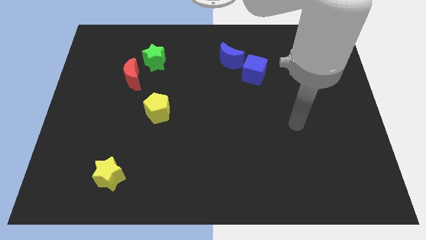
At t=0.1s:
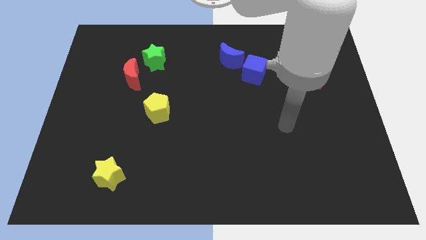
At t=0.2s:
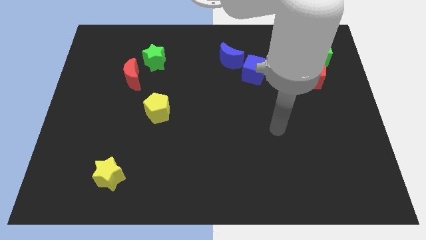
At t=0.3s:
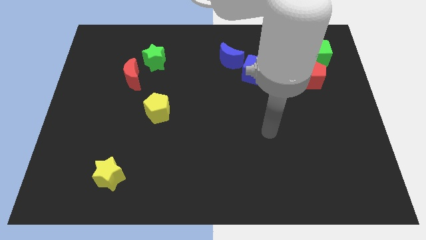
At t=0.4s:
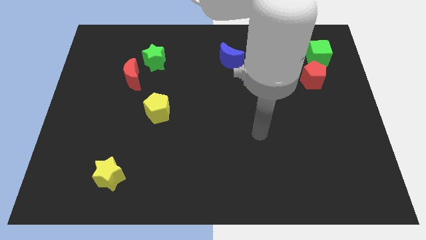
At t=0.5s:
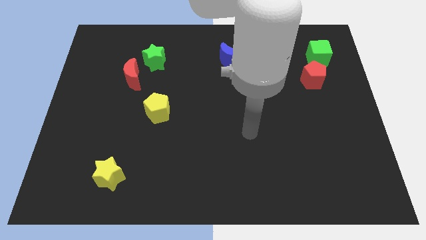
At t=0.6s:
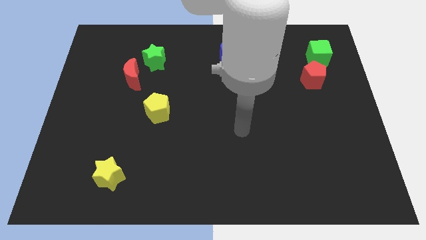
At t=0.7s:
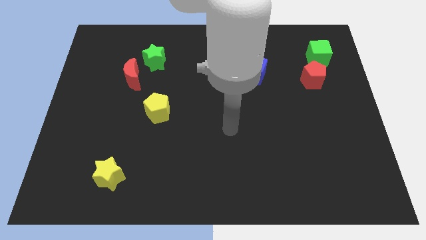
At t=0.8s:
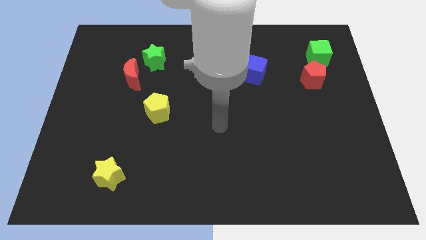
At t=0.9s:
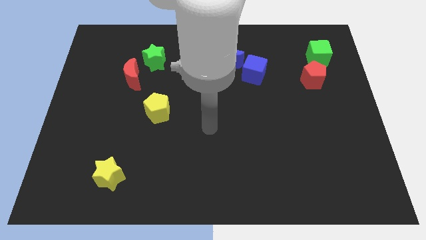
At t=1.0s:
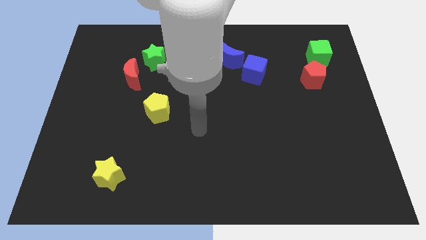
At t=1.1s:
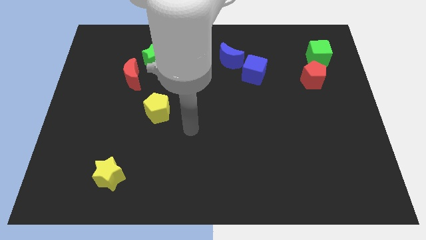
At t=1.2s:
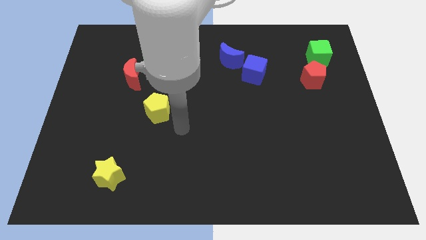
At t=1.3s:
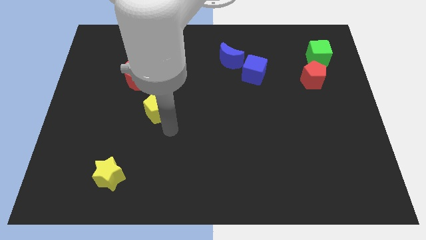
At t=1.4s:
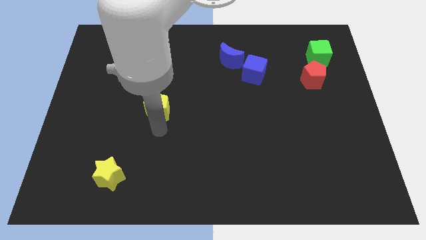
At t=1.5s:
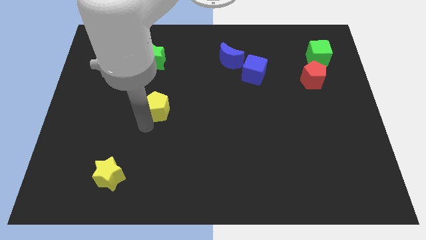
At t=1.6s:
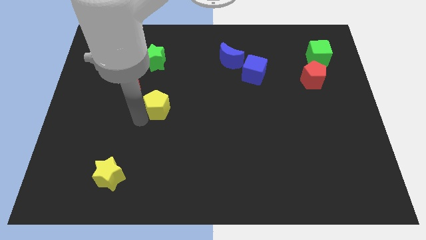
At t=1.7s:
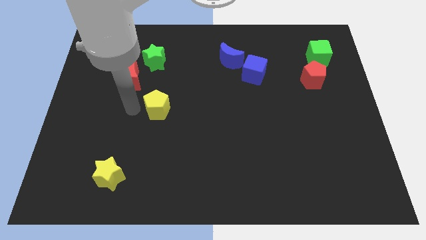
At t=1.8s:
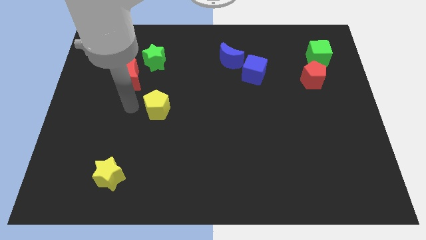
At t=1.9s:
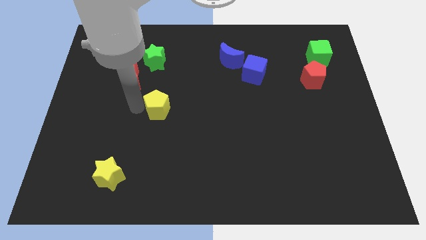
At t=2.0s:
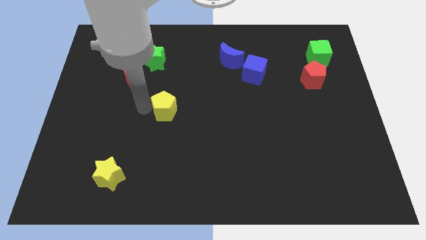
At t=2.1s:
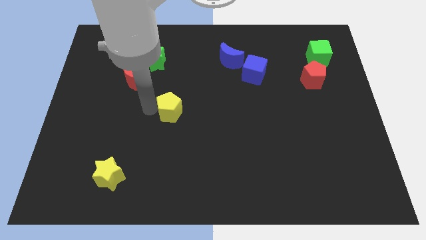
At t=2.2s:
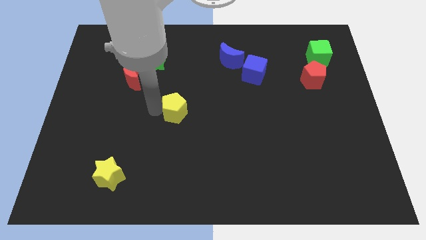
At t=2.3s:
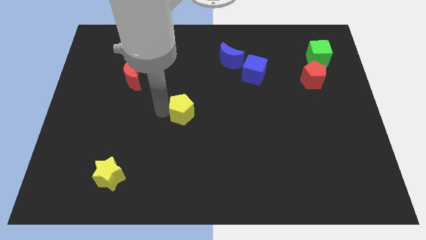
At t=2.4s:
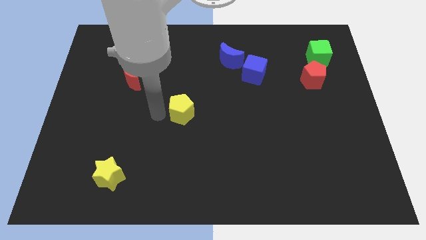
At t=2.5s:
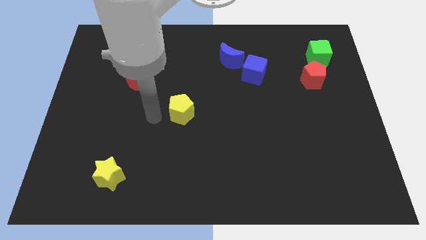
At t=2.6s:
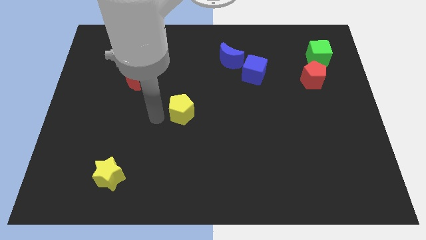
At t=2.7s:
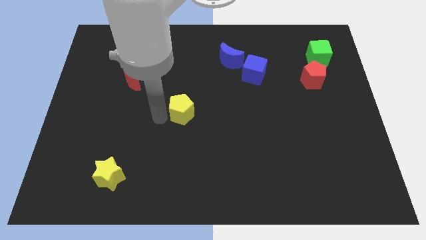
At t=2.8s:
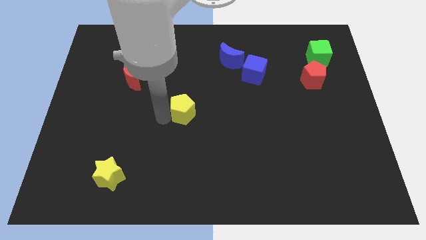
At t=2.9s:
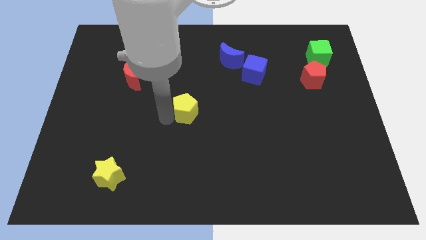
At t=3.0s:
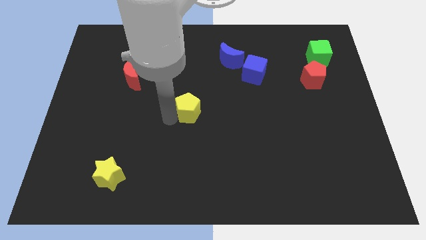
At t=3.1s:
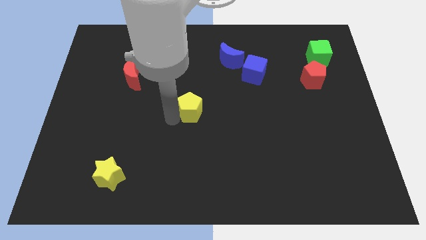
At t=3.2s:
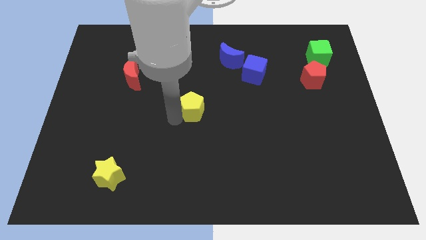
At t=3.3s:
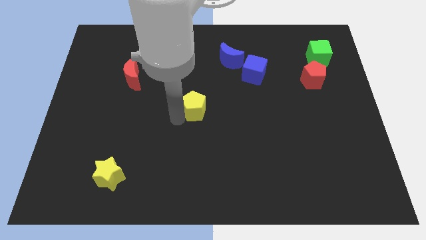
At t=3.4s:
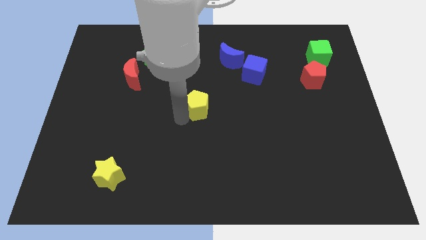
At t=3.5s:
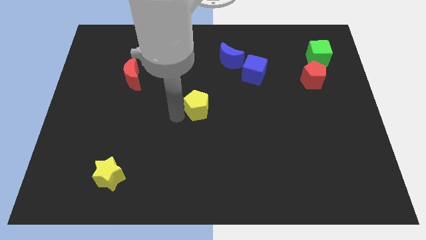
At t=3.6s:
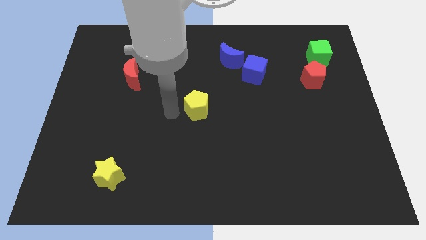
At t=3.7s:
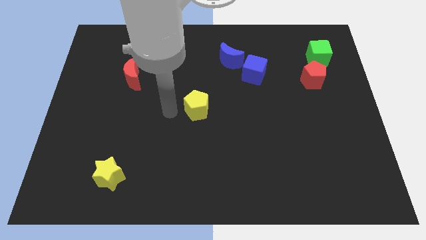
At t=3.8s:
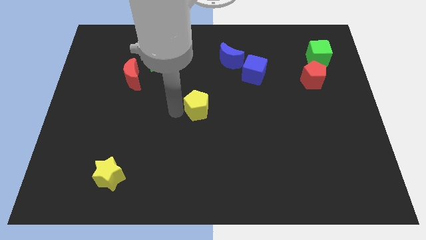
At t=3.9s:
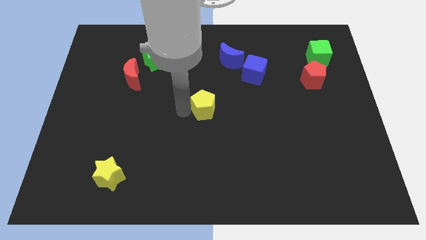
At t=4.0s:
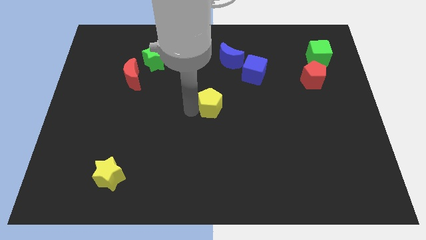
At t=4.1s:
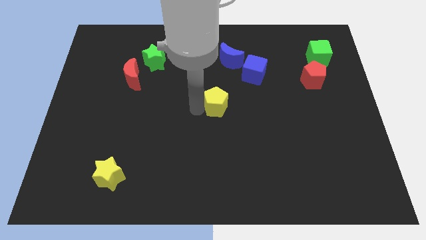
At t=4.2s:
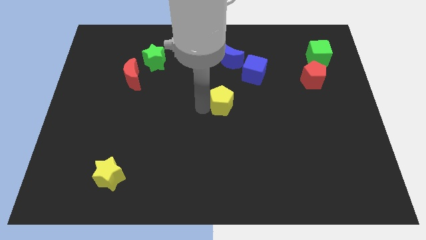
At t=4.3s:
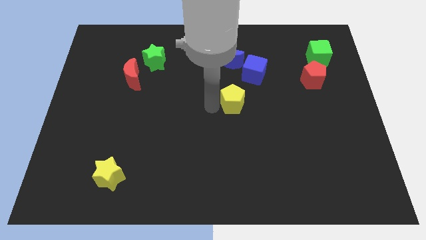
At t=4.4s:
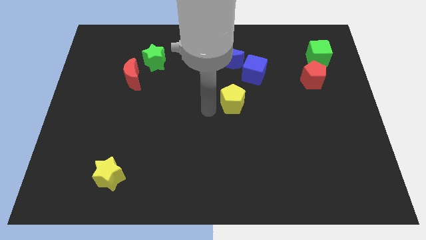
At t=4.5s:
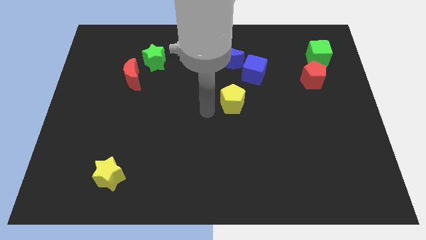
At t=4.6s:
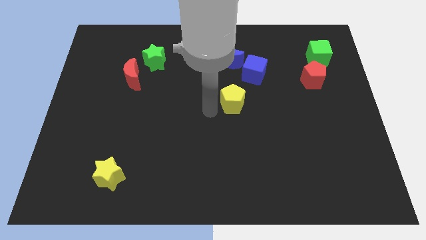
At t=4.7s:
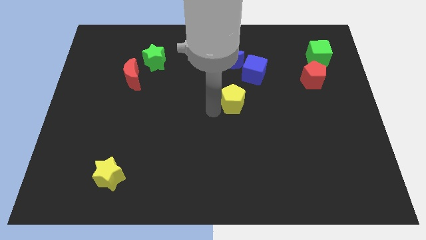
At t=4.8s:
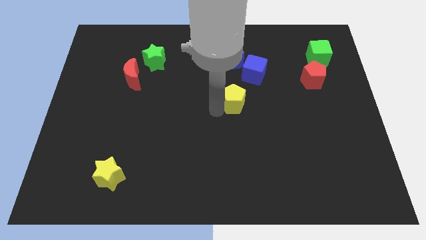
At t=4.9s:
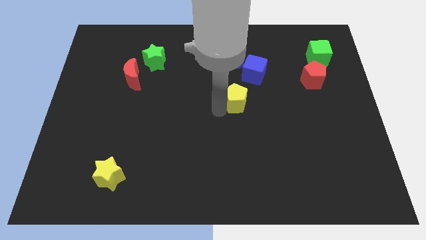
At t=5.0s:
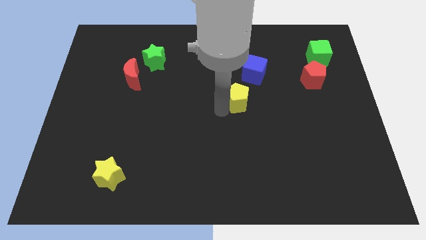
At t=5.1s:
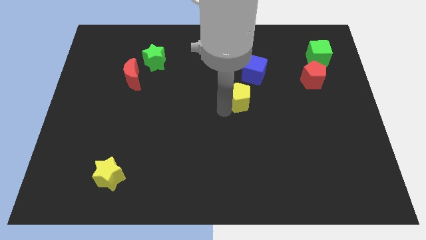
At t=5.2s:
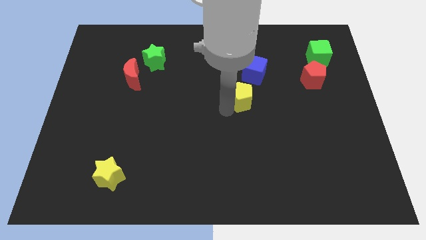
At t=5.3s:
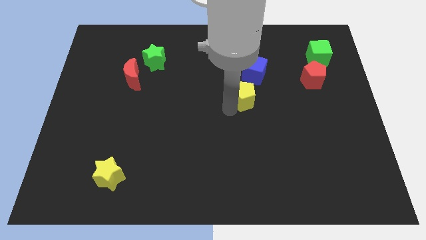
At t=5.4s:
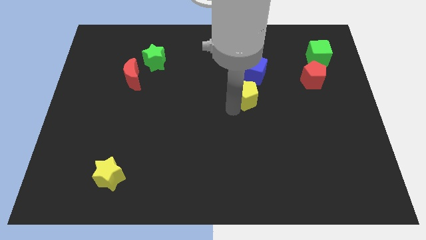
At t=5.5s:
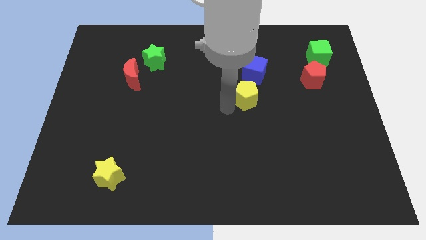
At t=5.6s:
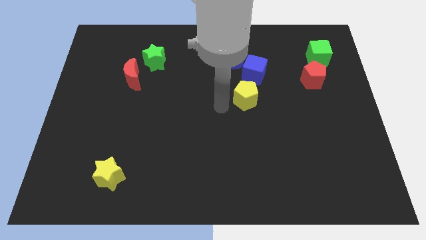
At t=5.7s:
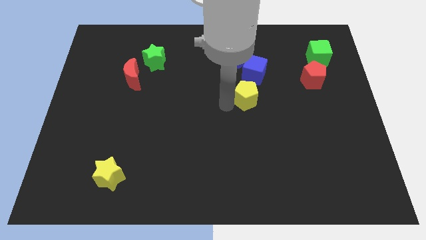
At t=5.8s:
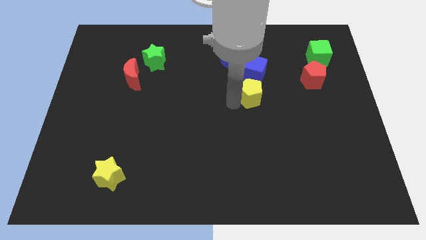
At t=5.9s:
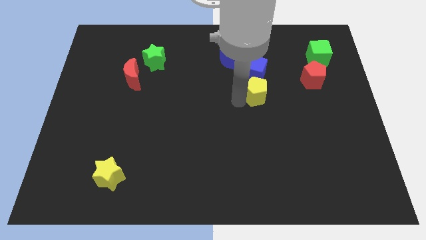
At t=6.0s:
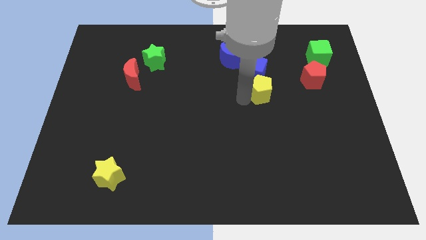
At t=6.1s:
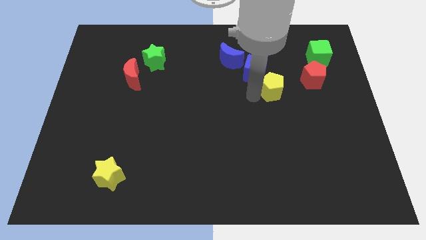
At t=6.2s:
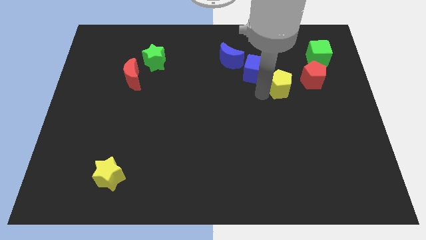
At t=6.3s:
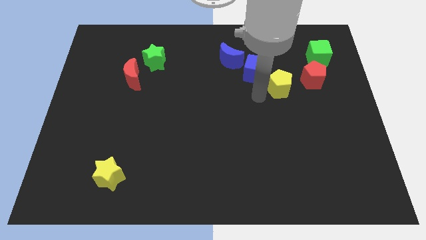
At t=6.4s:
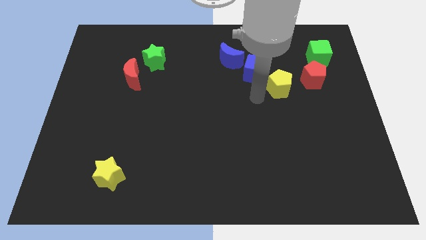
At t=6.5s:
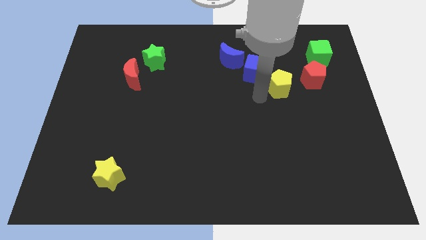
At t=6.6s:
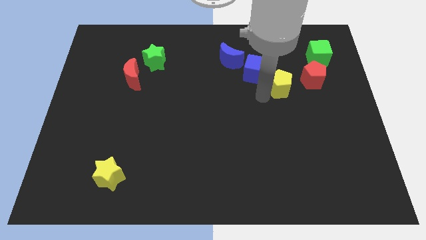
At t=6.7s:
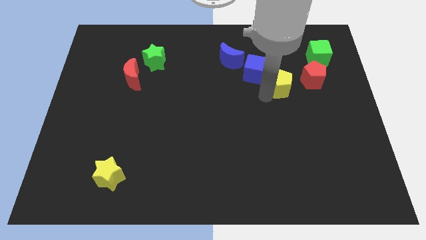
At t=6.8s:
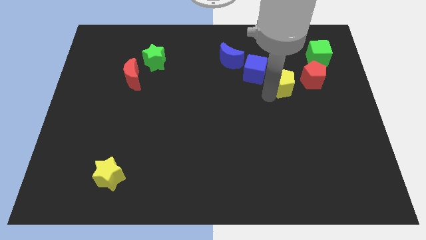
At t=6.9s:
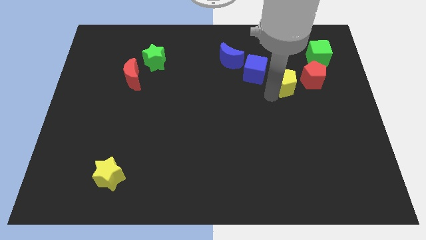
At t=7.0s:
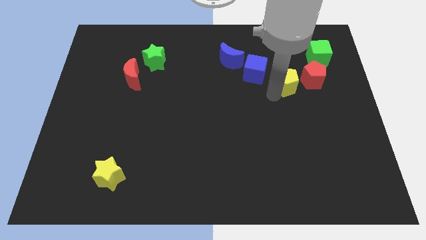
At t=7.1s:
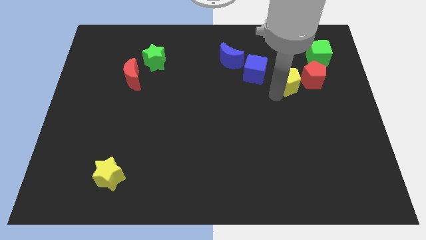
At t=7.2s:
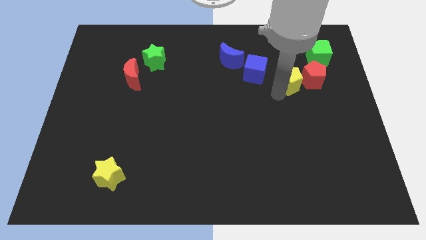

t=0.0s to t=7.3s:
move the yellow pentagon close to the red pentagon
